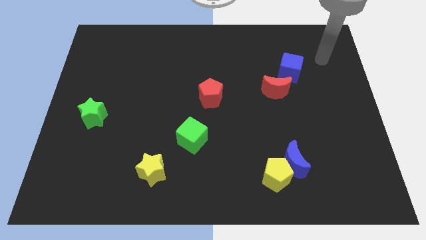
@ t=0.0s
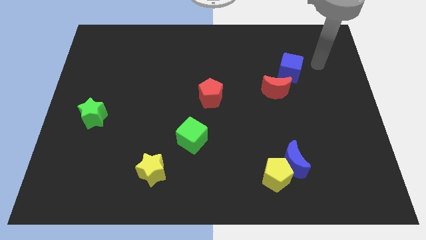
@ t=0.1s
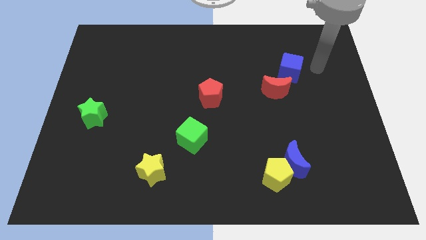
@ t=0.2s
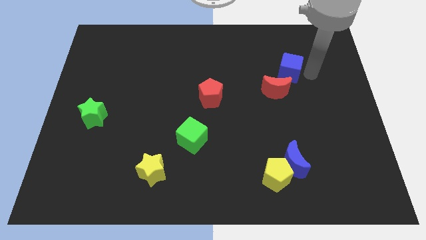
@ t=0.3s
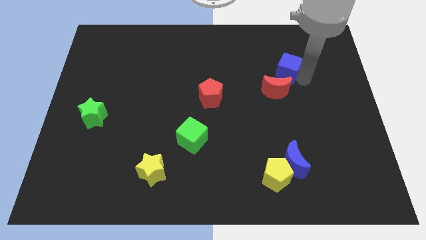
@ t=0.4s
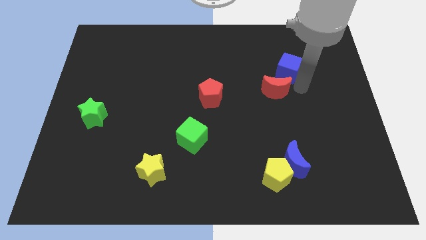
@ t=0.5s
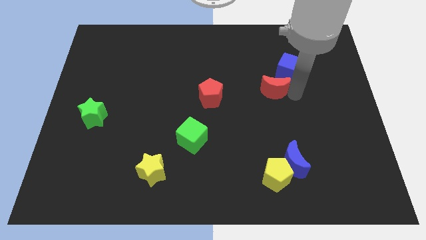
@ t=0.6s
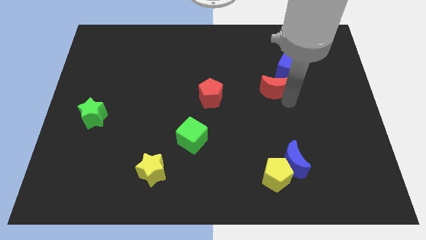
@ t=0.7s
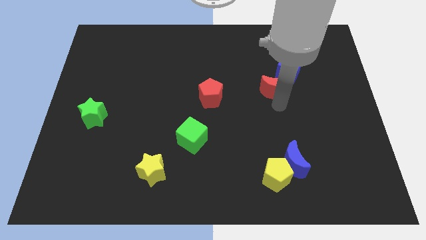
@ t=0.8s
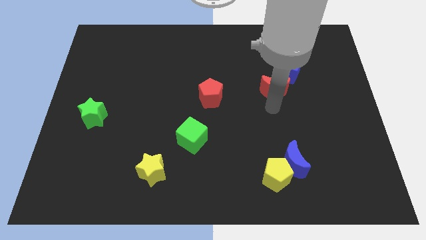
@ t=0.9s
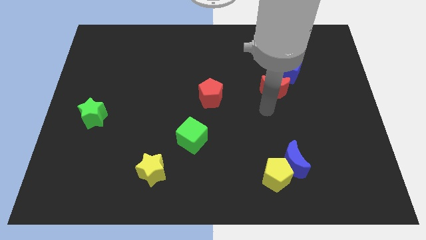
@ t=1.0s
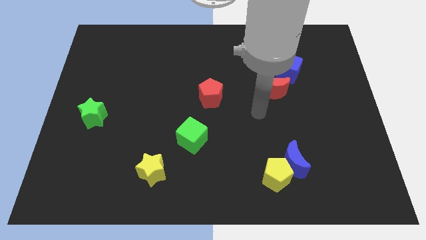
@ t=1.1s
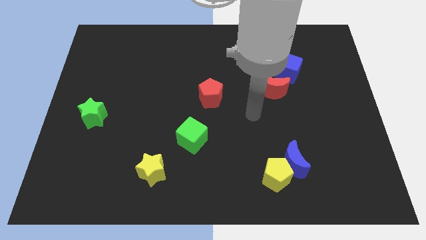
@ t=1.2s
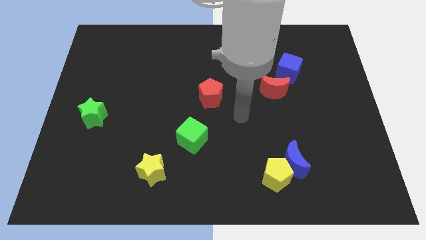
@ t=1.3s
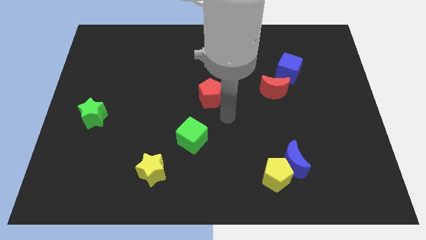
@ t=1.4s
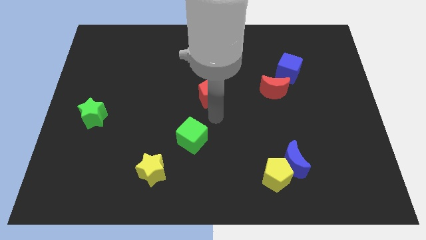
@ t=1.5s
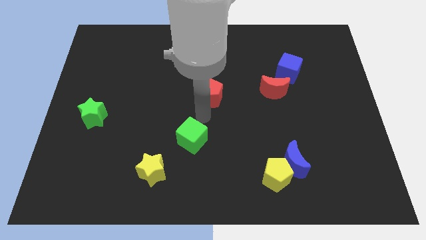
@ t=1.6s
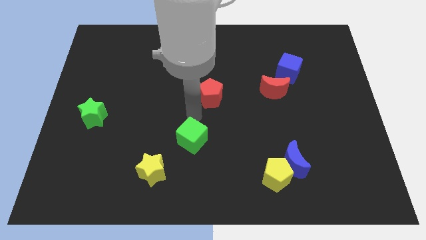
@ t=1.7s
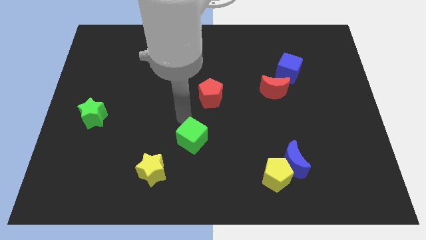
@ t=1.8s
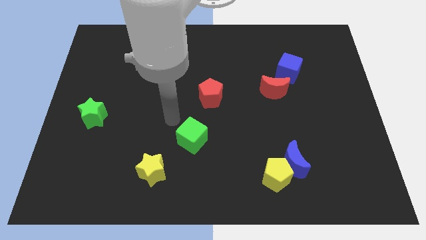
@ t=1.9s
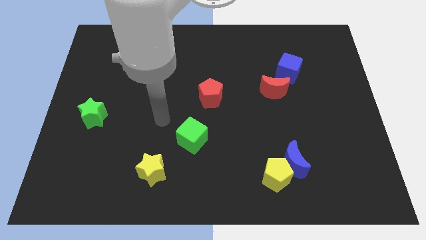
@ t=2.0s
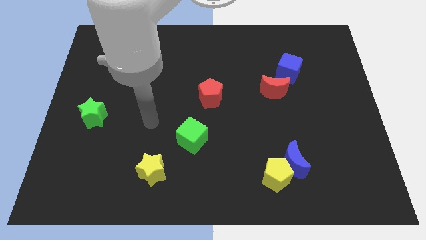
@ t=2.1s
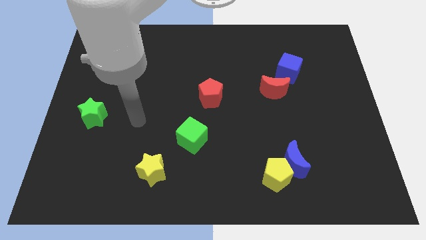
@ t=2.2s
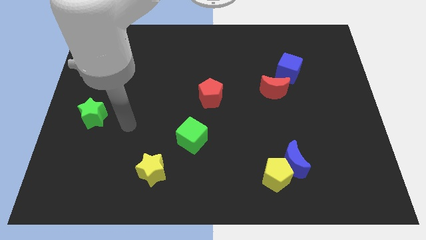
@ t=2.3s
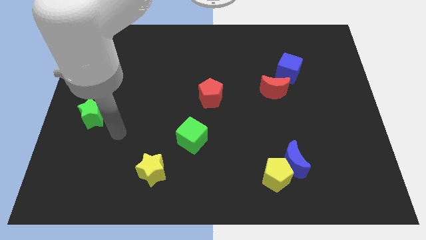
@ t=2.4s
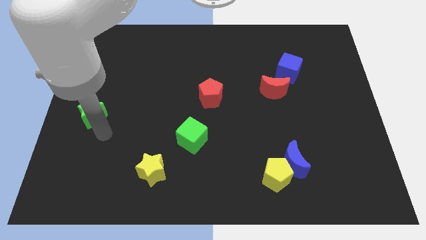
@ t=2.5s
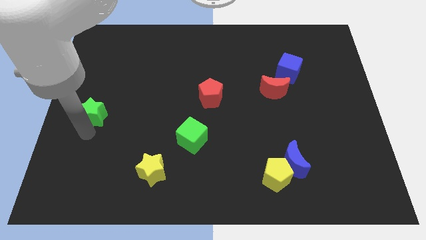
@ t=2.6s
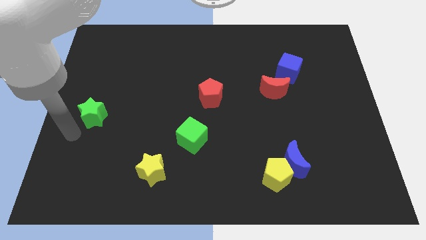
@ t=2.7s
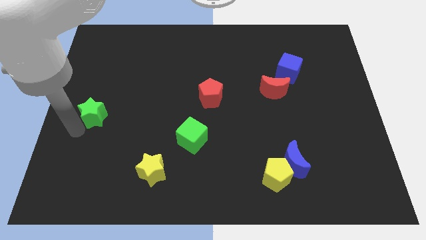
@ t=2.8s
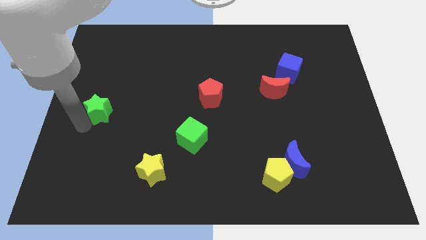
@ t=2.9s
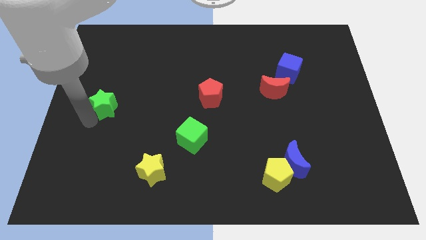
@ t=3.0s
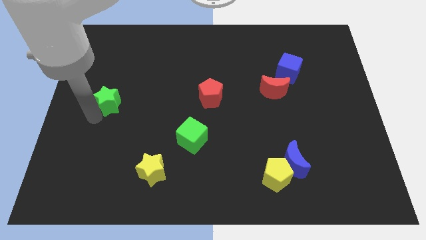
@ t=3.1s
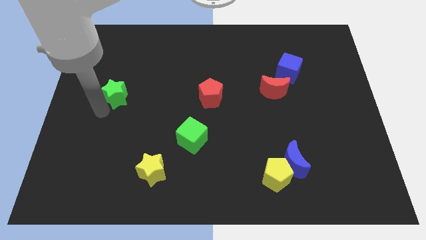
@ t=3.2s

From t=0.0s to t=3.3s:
push the green star upwards and to the right a bit

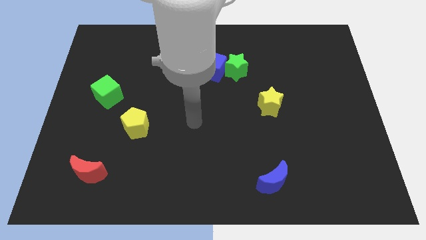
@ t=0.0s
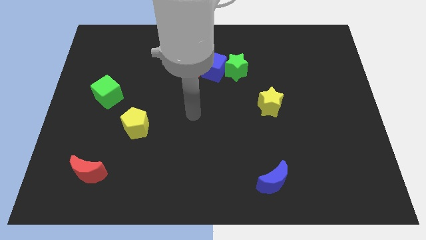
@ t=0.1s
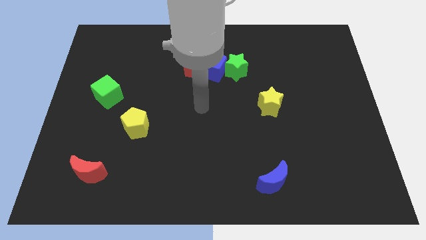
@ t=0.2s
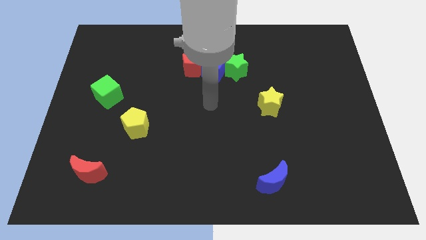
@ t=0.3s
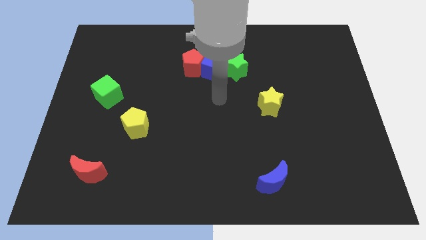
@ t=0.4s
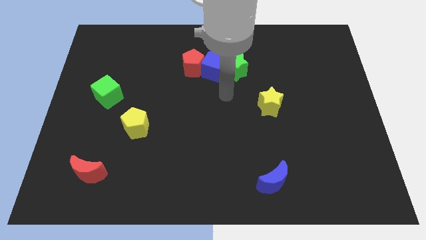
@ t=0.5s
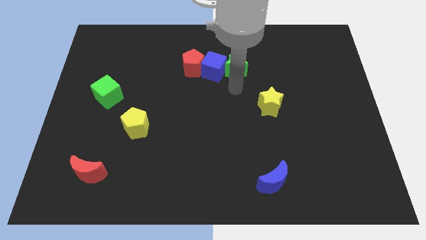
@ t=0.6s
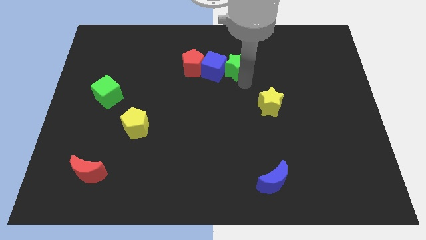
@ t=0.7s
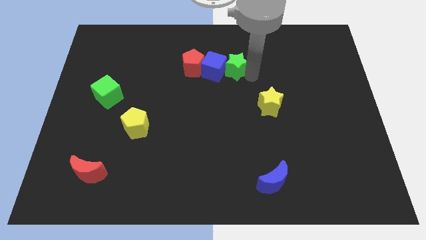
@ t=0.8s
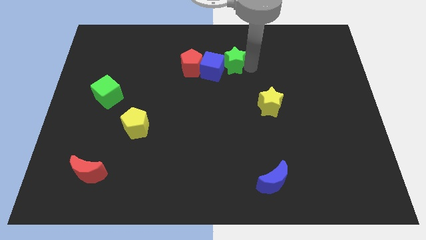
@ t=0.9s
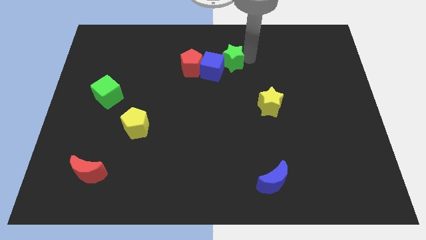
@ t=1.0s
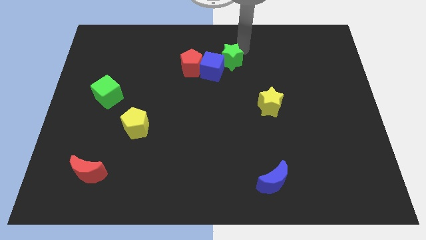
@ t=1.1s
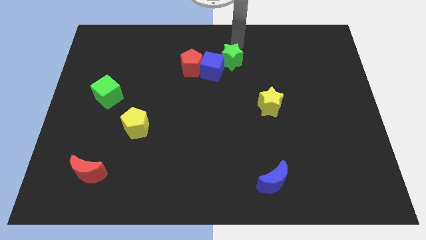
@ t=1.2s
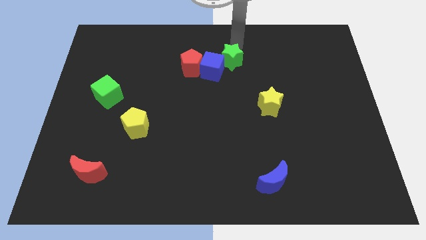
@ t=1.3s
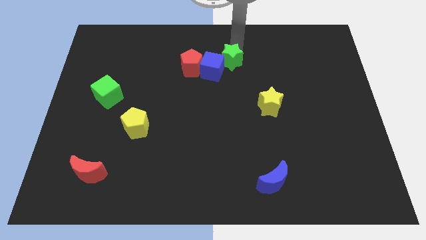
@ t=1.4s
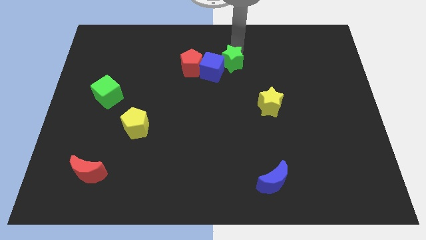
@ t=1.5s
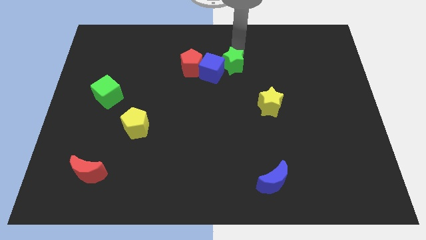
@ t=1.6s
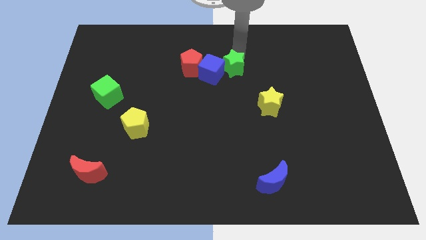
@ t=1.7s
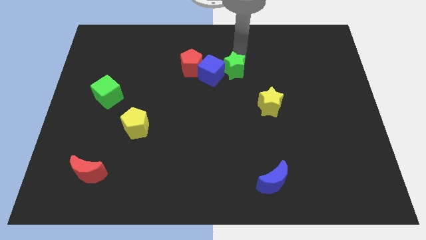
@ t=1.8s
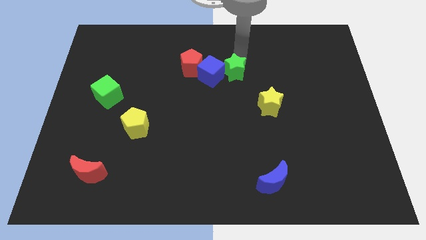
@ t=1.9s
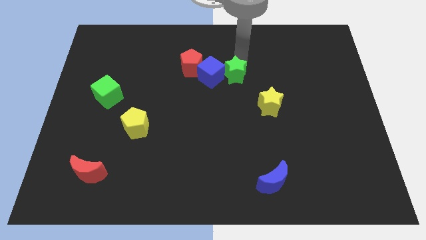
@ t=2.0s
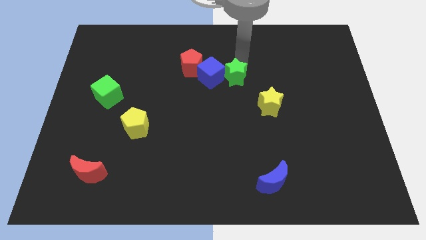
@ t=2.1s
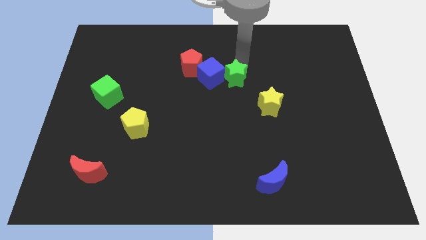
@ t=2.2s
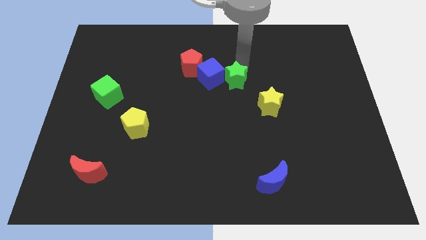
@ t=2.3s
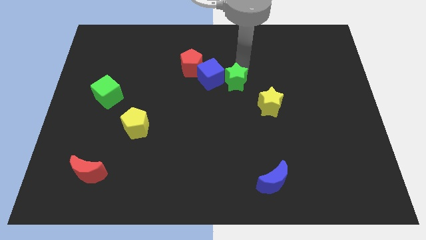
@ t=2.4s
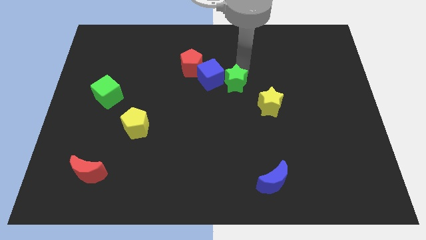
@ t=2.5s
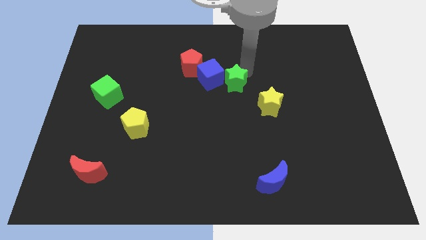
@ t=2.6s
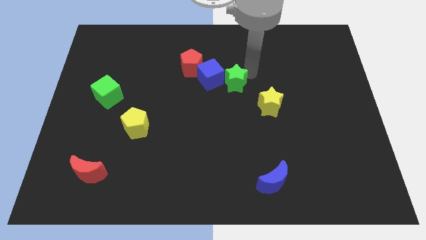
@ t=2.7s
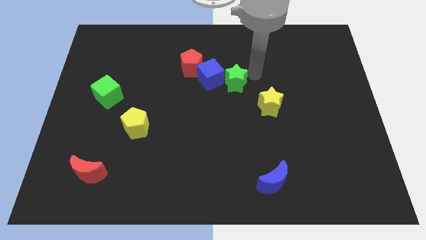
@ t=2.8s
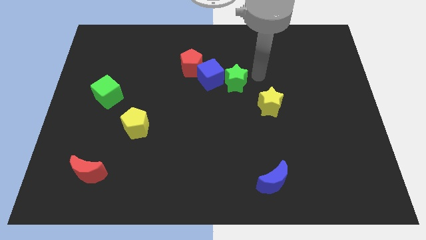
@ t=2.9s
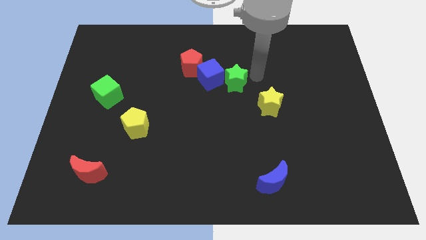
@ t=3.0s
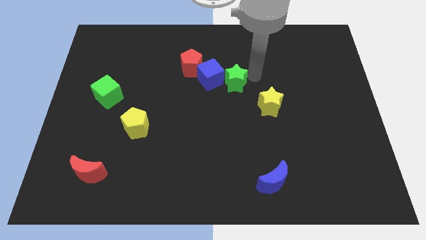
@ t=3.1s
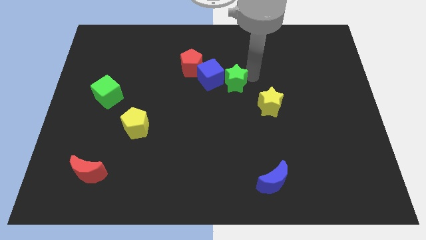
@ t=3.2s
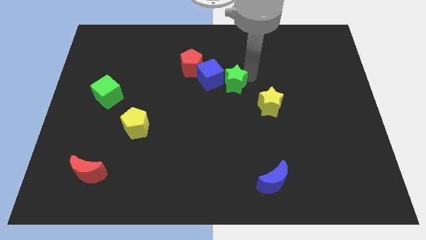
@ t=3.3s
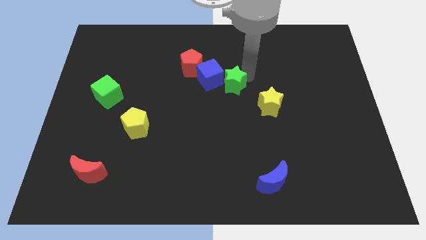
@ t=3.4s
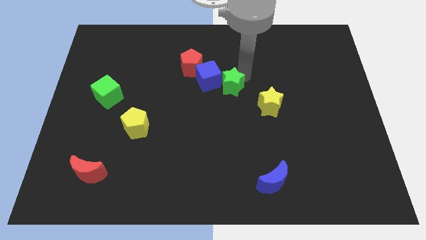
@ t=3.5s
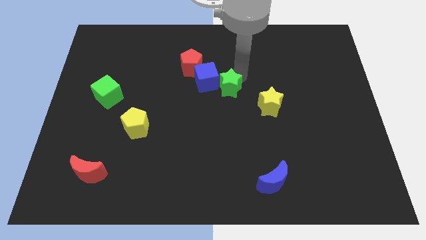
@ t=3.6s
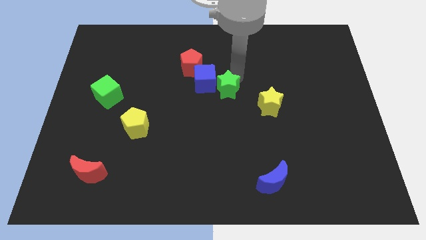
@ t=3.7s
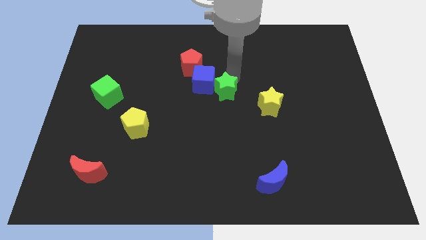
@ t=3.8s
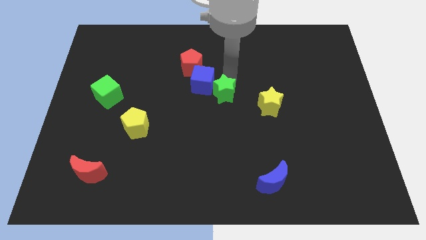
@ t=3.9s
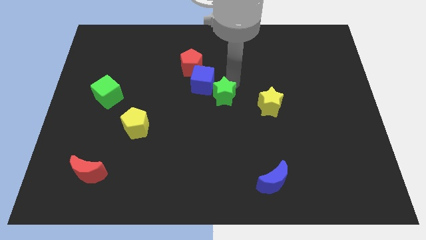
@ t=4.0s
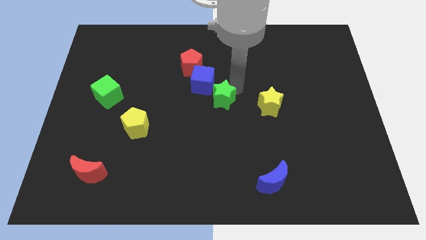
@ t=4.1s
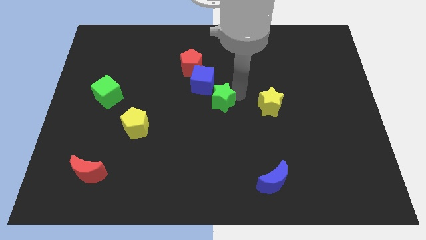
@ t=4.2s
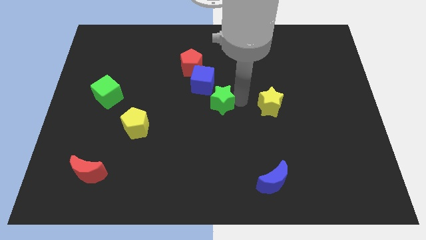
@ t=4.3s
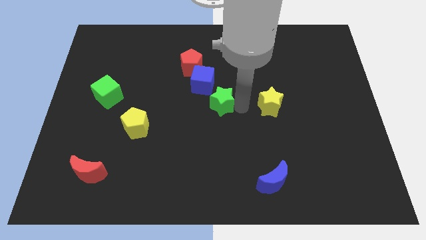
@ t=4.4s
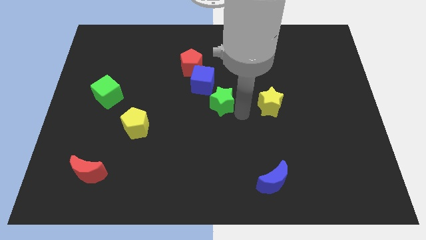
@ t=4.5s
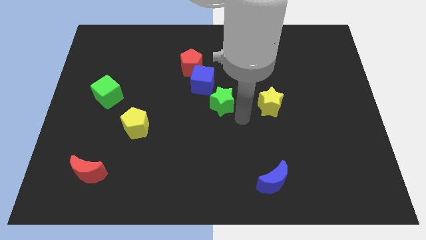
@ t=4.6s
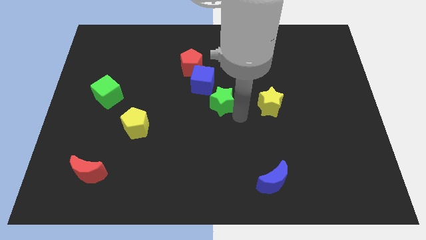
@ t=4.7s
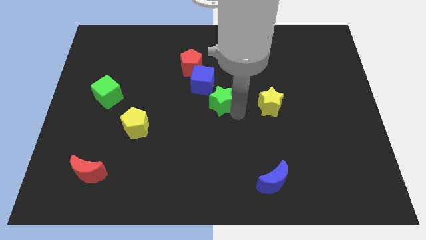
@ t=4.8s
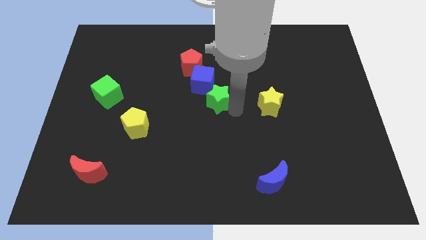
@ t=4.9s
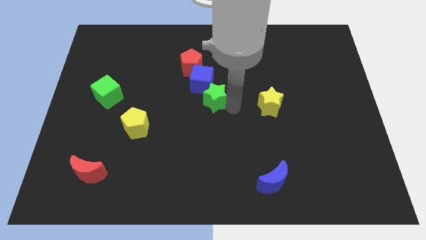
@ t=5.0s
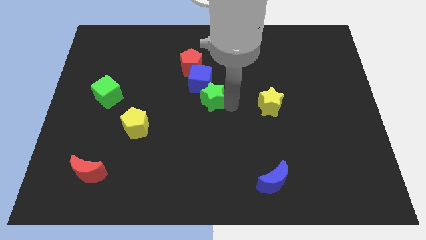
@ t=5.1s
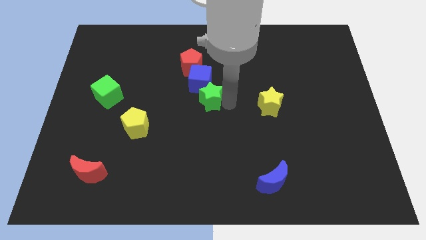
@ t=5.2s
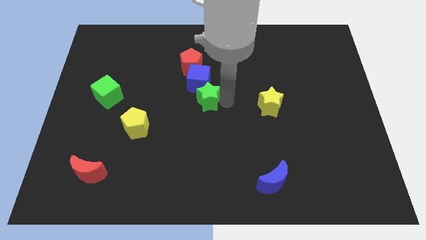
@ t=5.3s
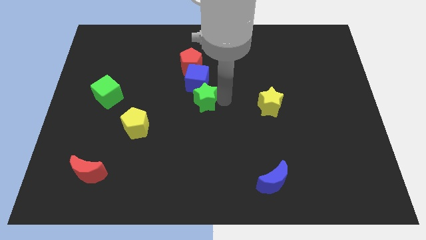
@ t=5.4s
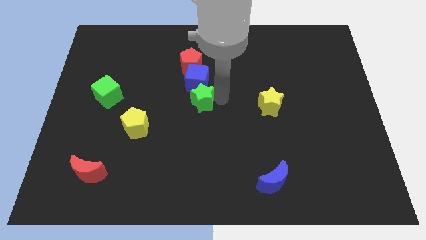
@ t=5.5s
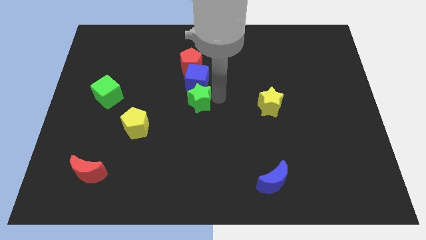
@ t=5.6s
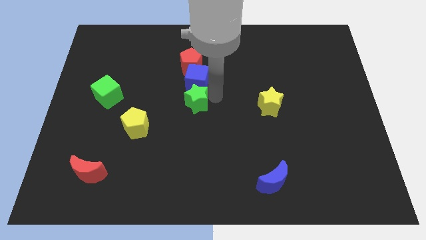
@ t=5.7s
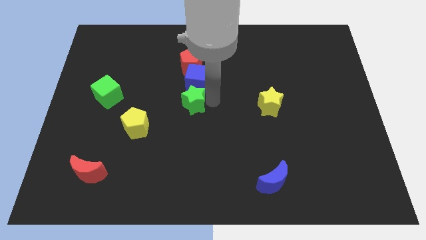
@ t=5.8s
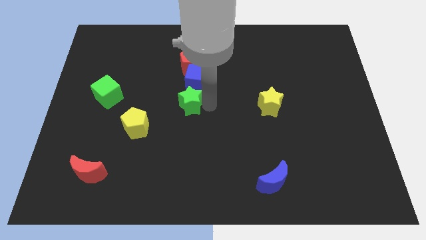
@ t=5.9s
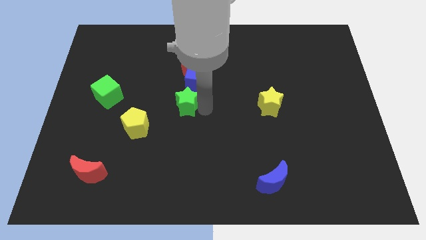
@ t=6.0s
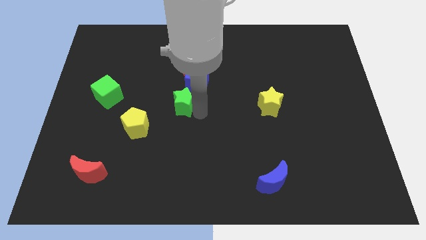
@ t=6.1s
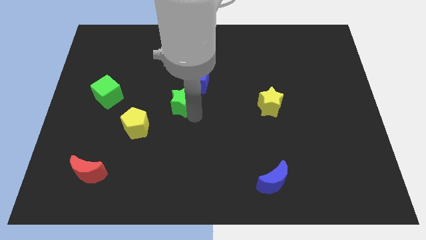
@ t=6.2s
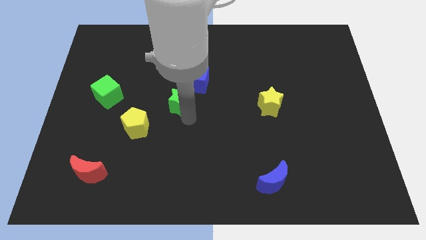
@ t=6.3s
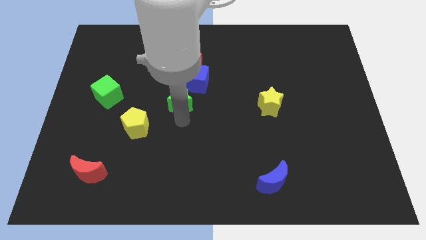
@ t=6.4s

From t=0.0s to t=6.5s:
slightly push the green star left
